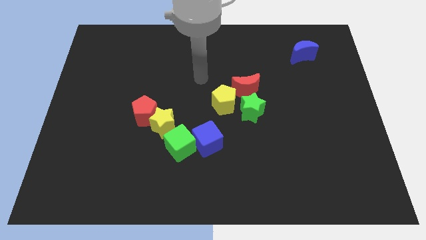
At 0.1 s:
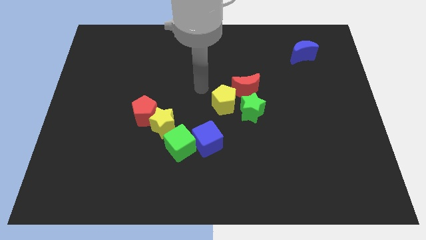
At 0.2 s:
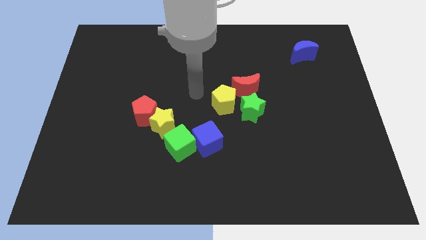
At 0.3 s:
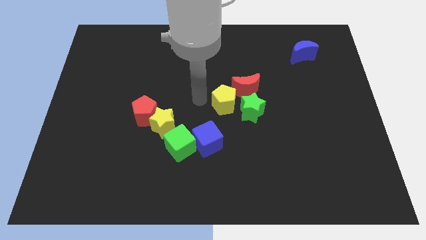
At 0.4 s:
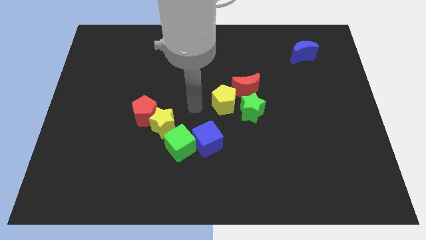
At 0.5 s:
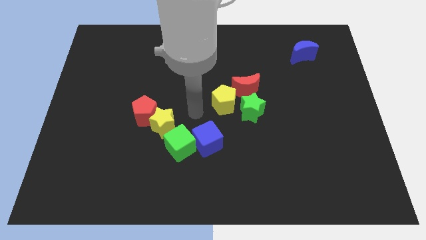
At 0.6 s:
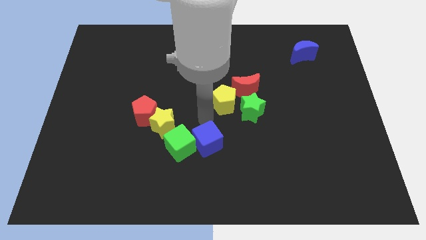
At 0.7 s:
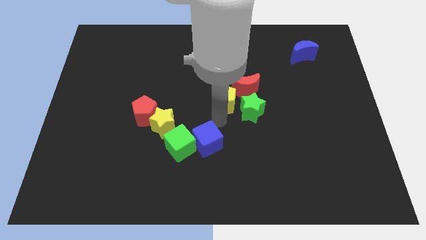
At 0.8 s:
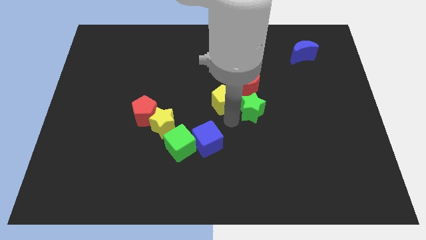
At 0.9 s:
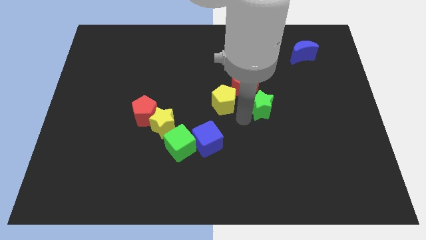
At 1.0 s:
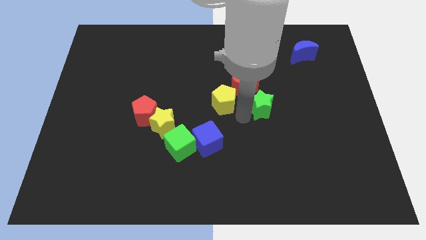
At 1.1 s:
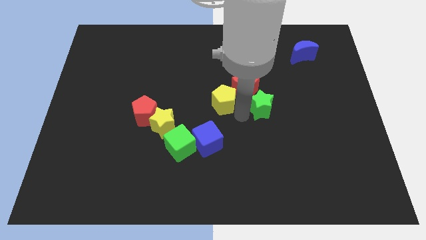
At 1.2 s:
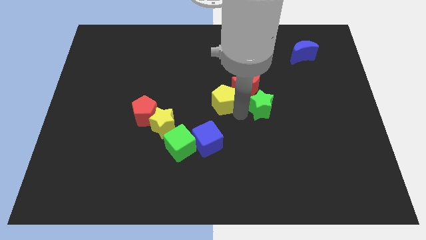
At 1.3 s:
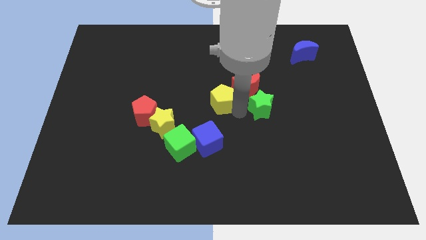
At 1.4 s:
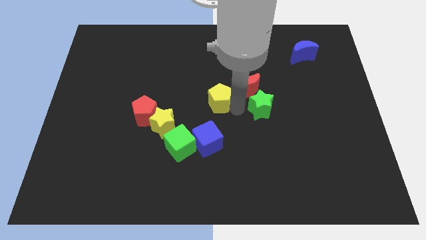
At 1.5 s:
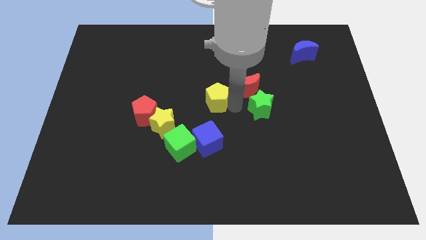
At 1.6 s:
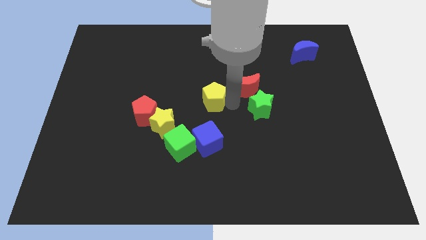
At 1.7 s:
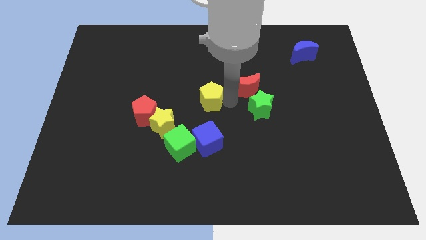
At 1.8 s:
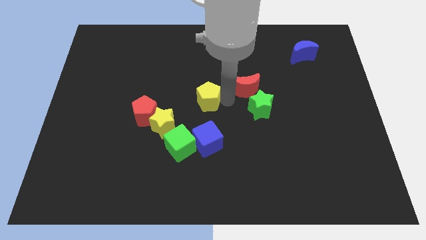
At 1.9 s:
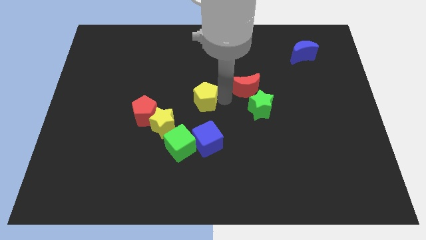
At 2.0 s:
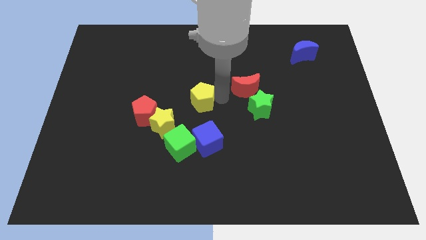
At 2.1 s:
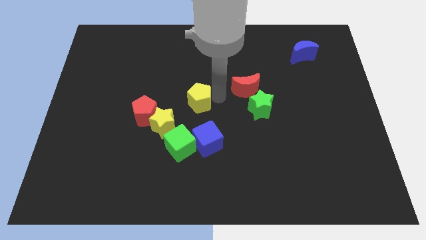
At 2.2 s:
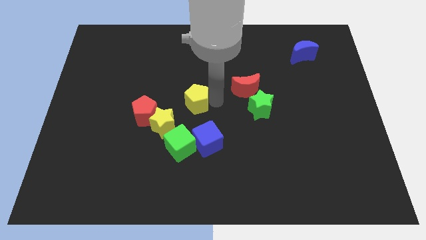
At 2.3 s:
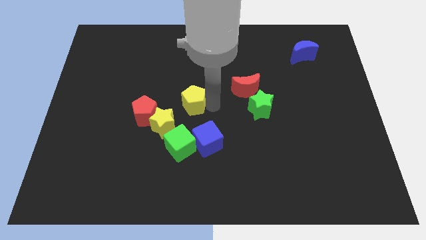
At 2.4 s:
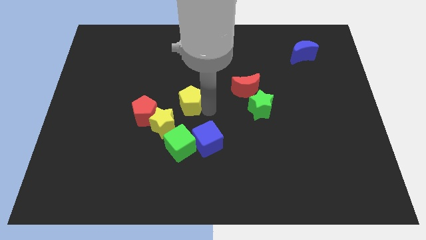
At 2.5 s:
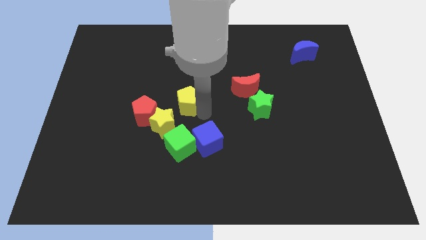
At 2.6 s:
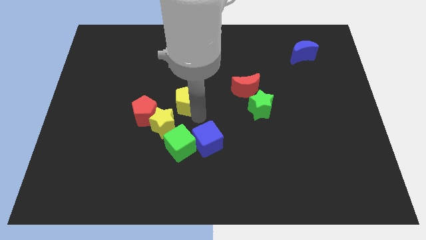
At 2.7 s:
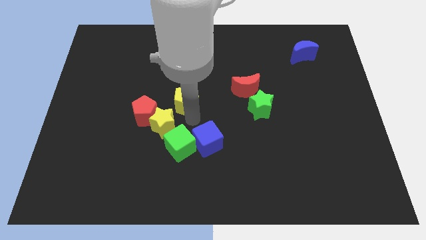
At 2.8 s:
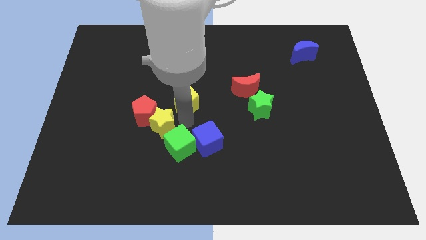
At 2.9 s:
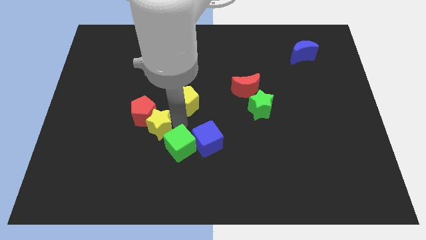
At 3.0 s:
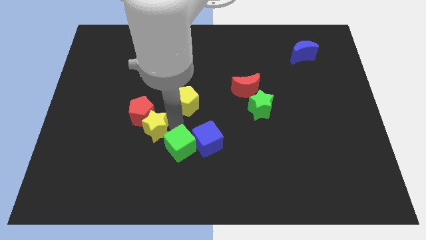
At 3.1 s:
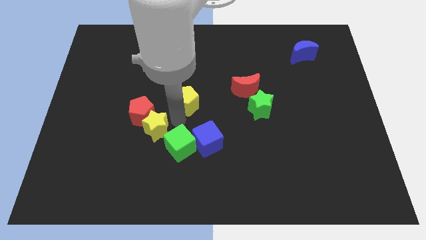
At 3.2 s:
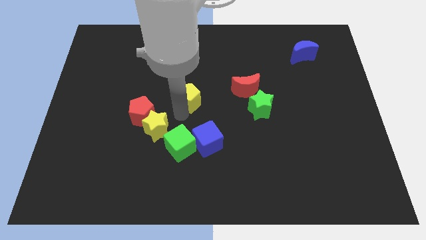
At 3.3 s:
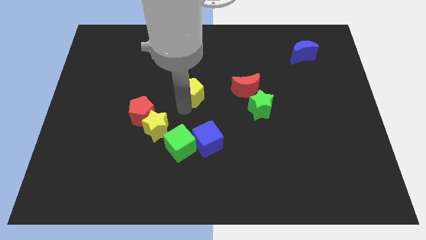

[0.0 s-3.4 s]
move the yellow pentagon a little bit up and then to the left

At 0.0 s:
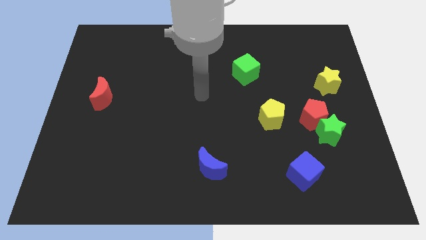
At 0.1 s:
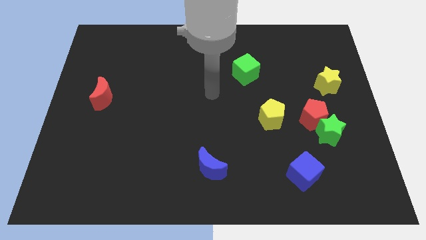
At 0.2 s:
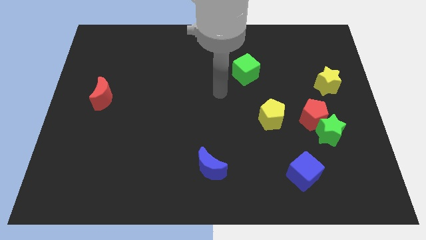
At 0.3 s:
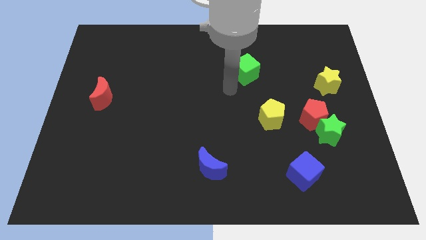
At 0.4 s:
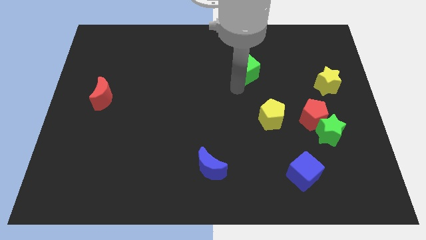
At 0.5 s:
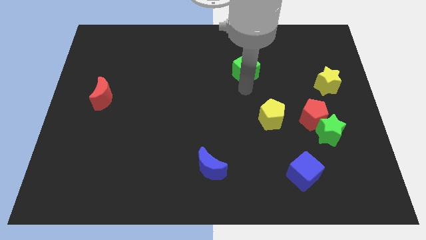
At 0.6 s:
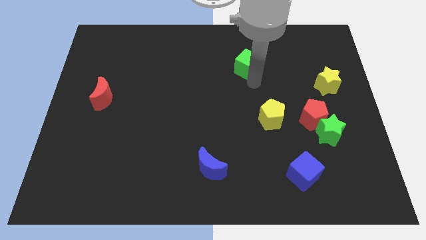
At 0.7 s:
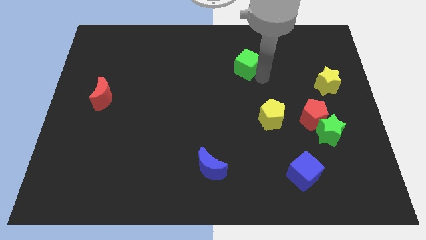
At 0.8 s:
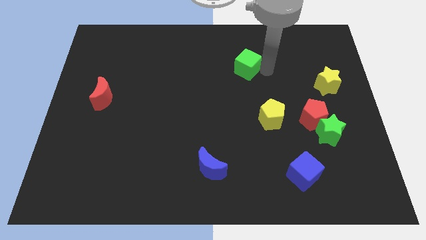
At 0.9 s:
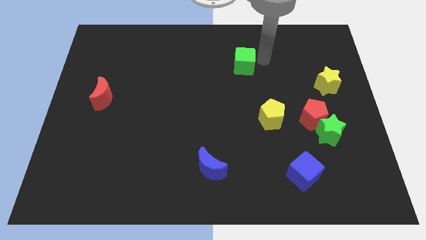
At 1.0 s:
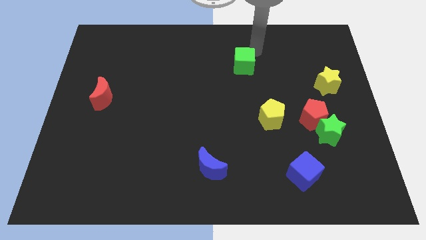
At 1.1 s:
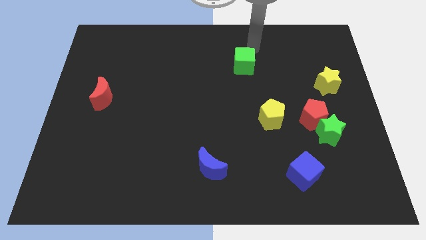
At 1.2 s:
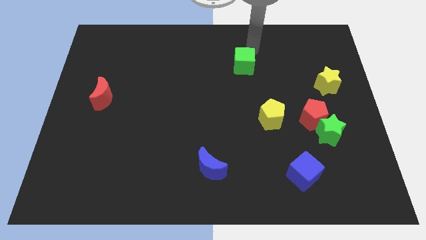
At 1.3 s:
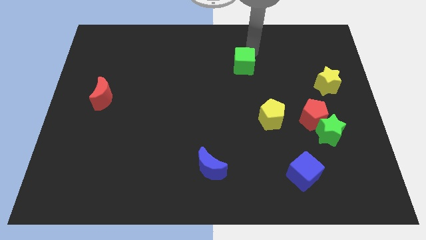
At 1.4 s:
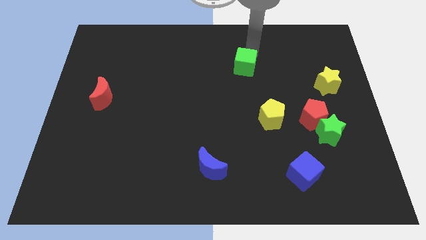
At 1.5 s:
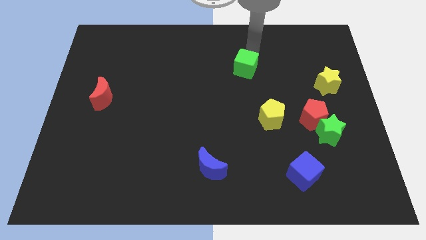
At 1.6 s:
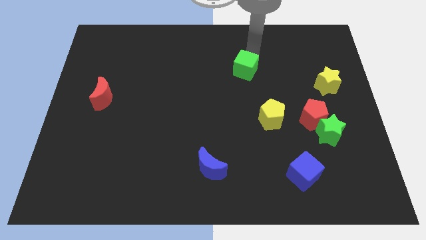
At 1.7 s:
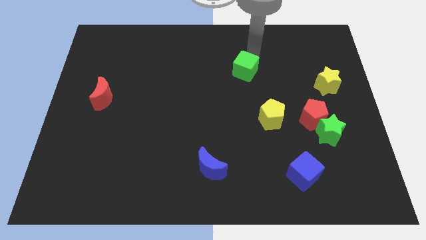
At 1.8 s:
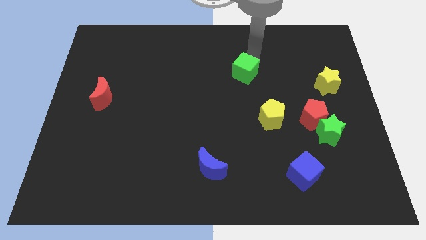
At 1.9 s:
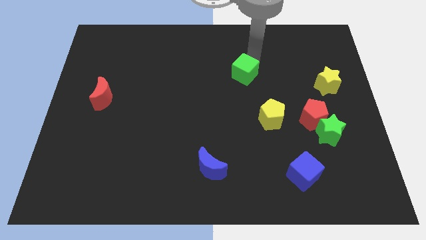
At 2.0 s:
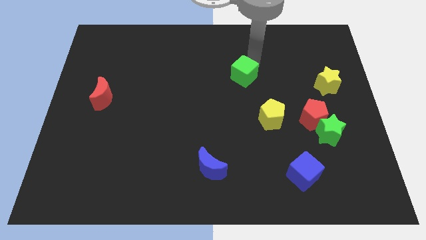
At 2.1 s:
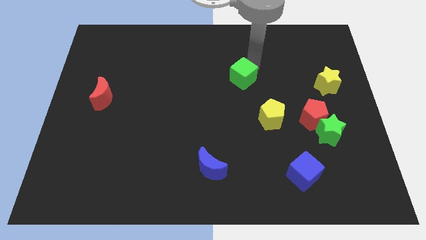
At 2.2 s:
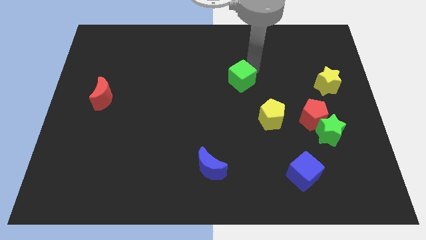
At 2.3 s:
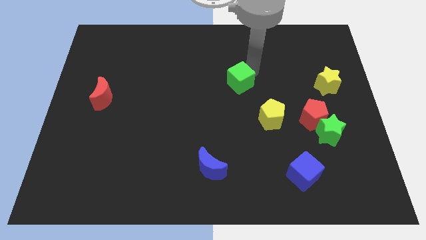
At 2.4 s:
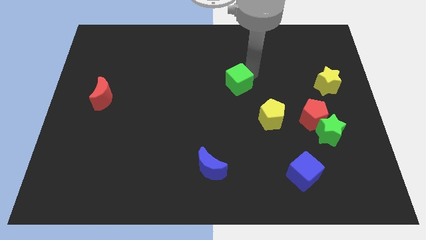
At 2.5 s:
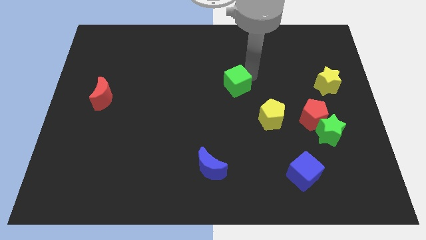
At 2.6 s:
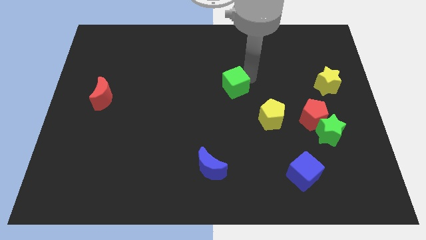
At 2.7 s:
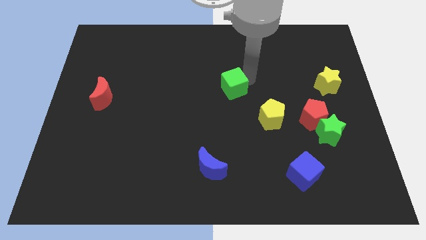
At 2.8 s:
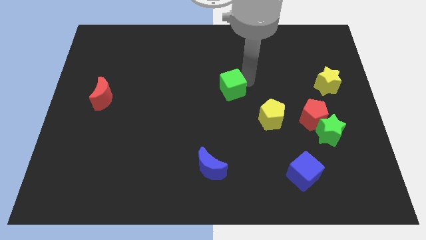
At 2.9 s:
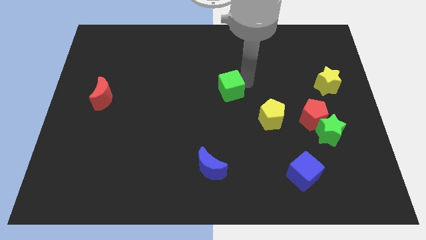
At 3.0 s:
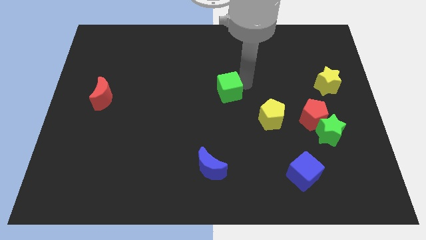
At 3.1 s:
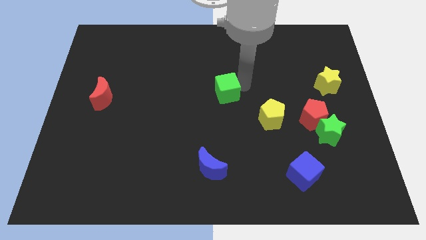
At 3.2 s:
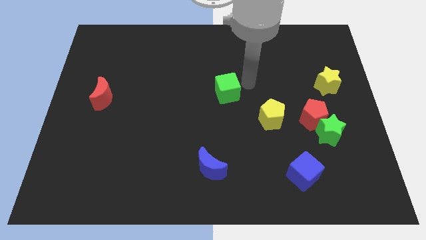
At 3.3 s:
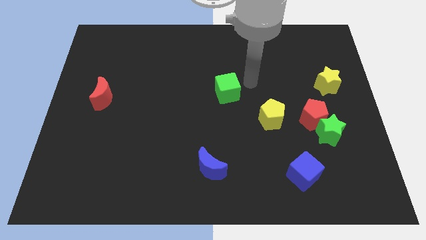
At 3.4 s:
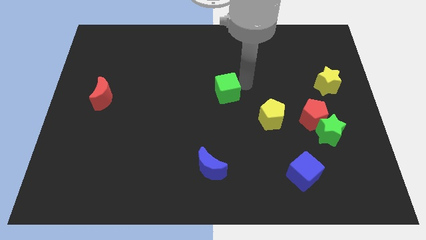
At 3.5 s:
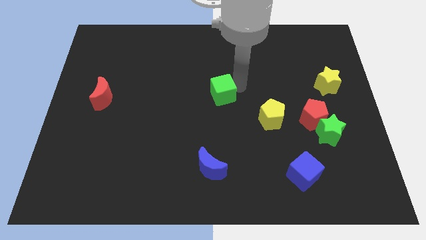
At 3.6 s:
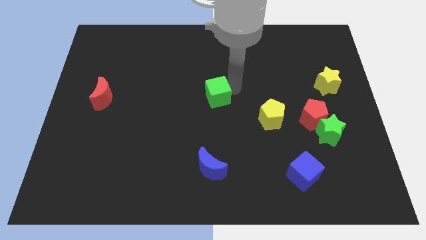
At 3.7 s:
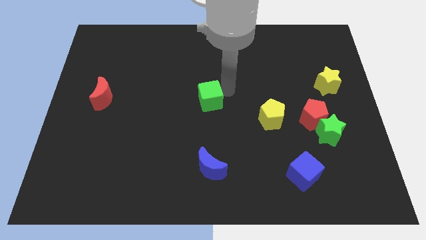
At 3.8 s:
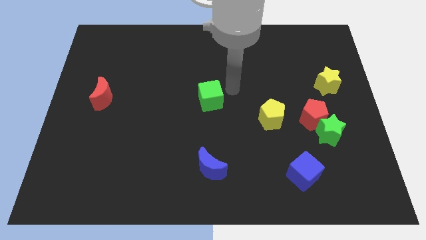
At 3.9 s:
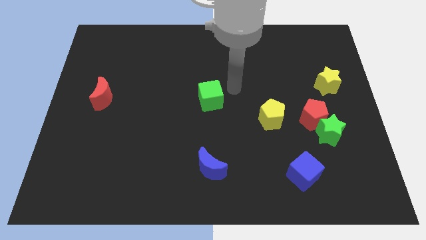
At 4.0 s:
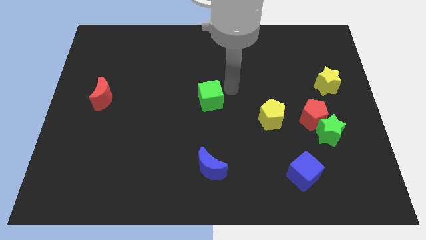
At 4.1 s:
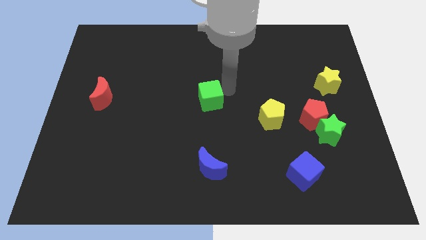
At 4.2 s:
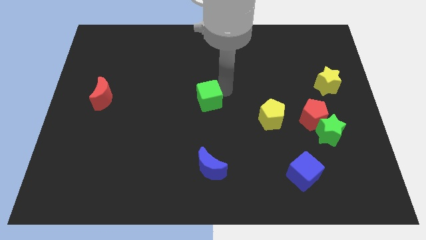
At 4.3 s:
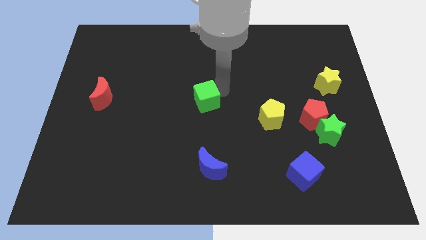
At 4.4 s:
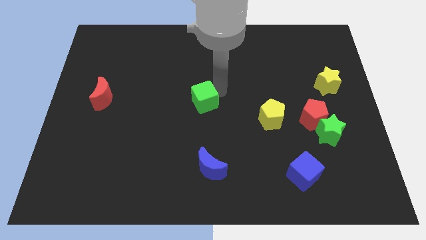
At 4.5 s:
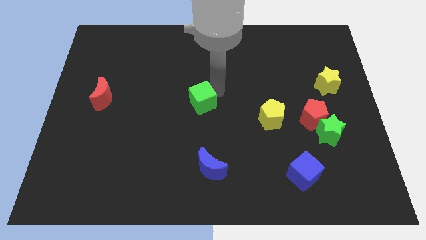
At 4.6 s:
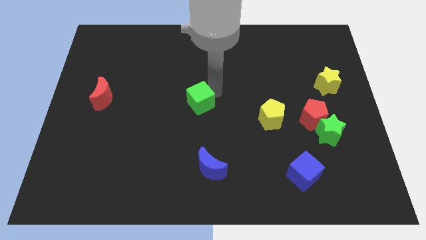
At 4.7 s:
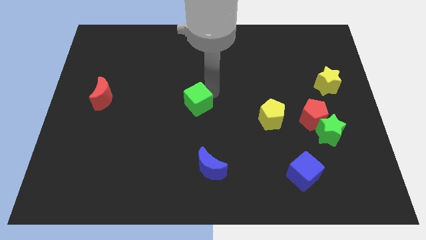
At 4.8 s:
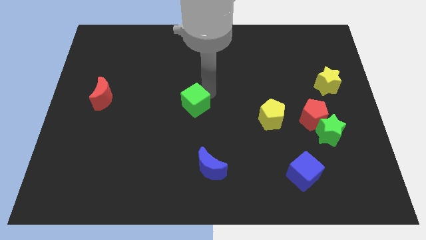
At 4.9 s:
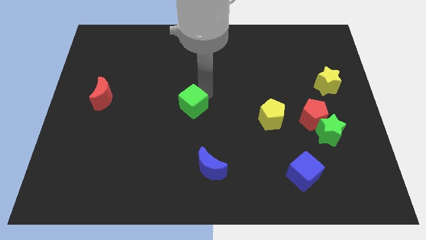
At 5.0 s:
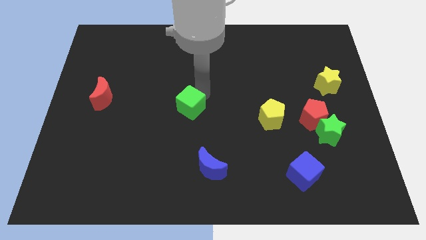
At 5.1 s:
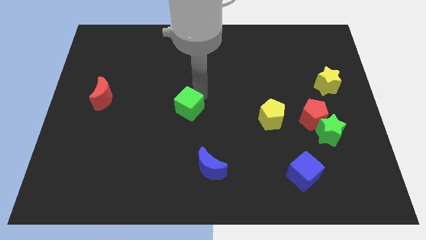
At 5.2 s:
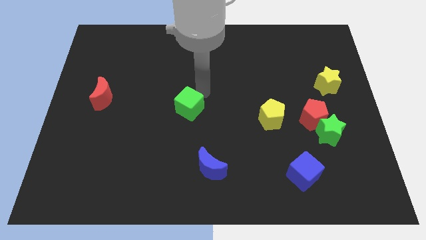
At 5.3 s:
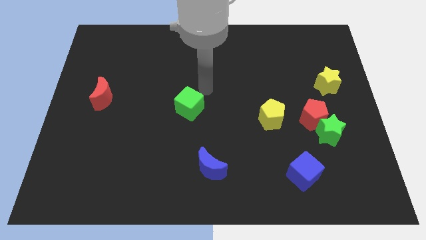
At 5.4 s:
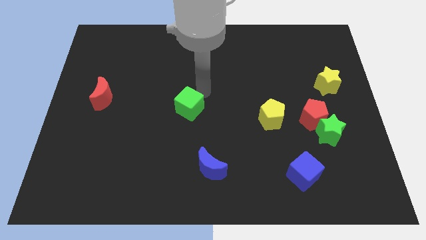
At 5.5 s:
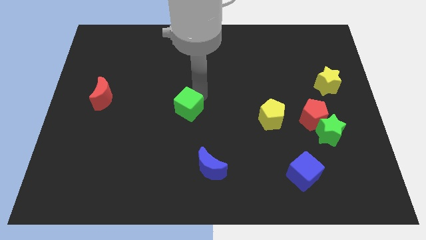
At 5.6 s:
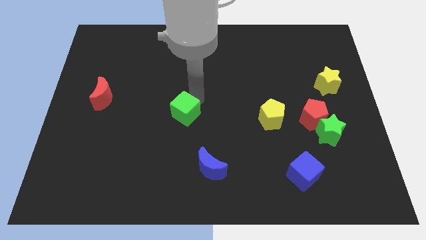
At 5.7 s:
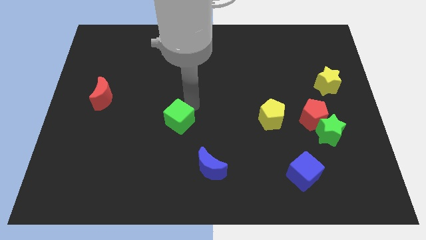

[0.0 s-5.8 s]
slide the green cube diagonally down and left
